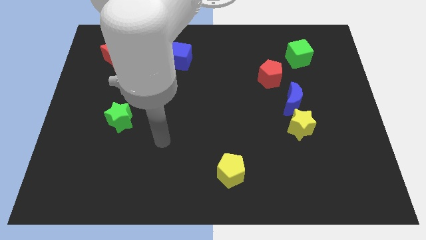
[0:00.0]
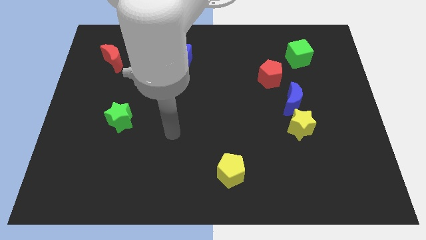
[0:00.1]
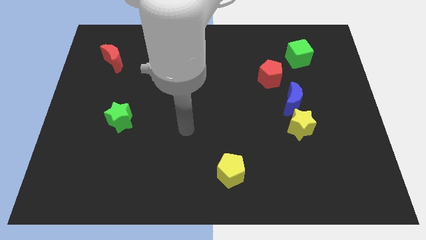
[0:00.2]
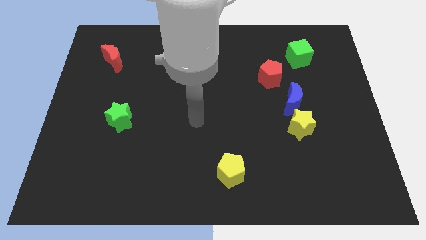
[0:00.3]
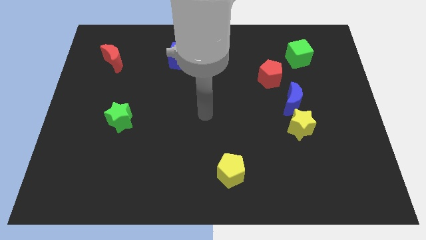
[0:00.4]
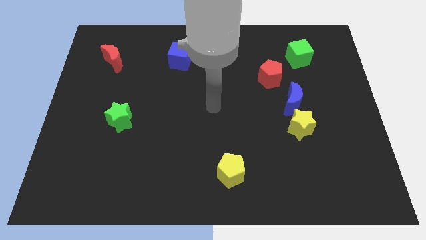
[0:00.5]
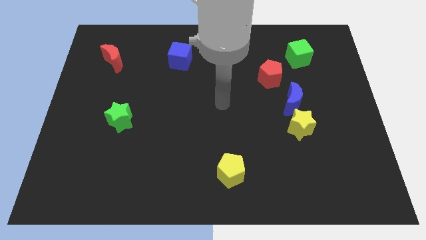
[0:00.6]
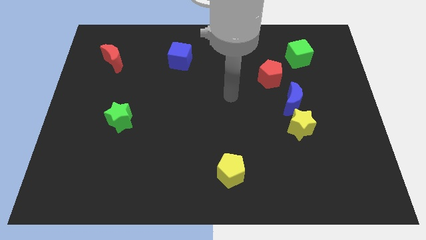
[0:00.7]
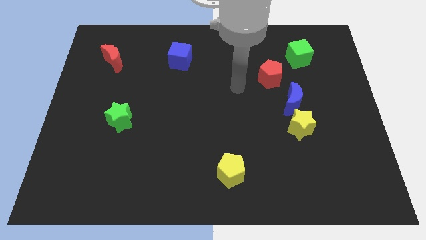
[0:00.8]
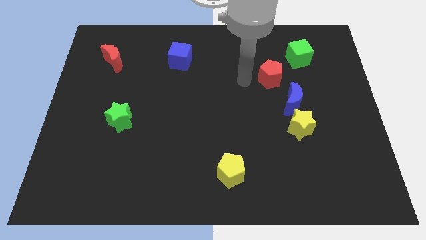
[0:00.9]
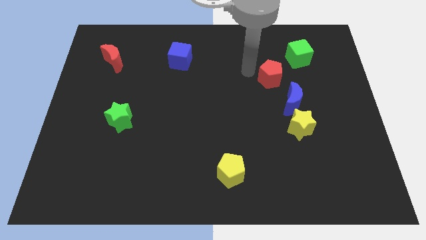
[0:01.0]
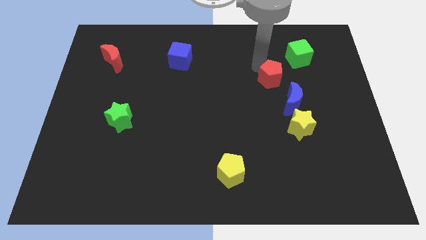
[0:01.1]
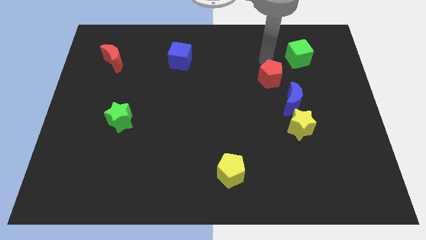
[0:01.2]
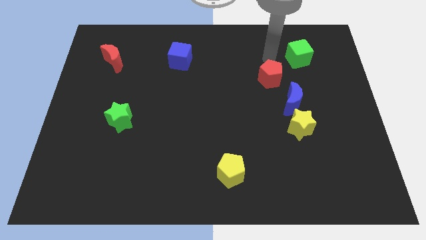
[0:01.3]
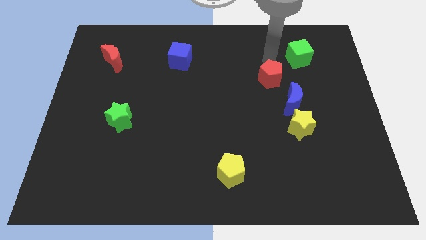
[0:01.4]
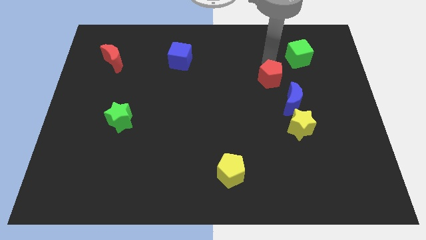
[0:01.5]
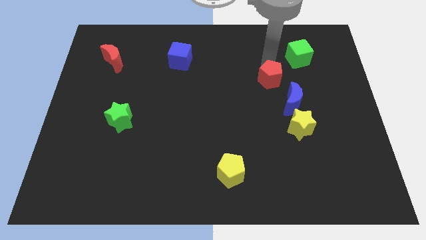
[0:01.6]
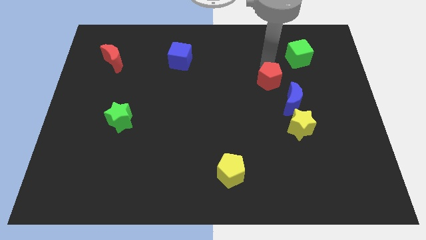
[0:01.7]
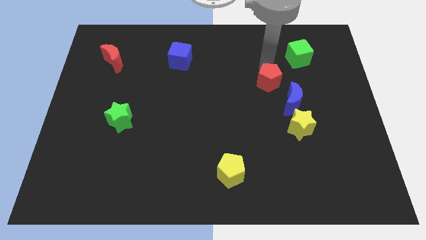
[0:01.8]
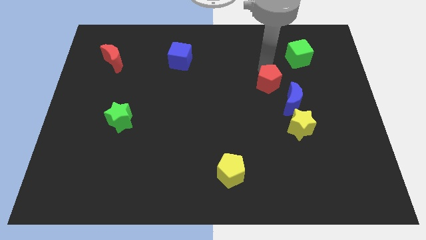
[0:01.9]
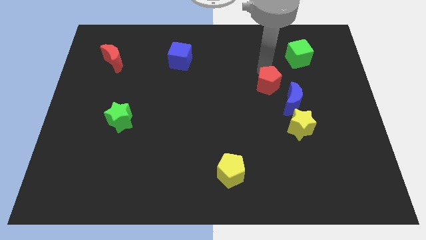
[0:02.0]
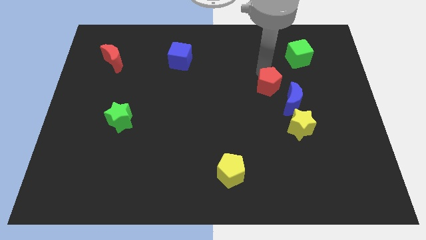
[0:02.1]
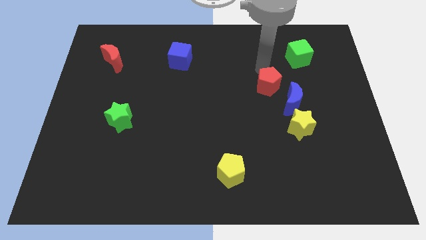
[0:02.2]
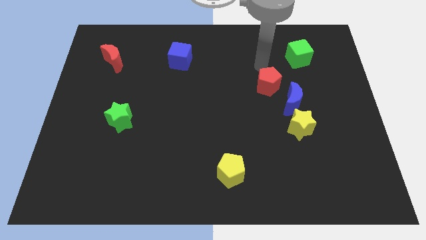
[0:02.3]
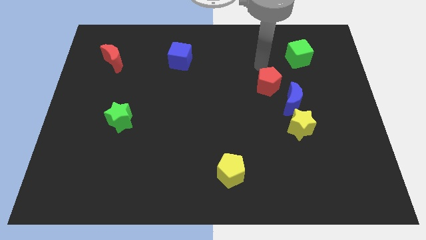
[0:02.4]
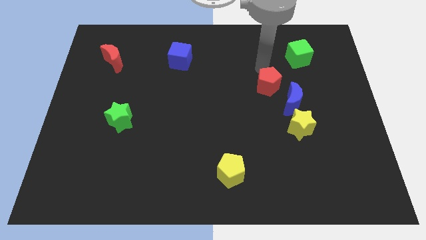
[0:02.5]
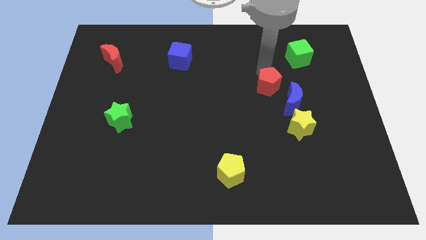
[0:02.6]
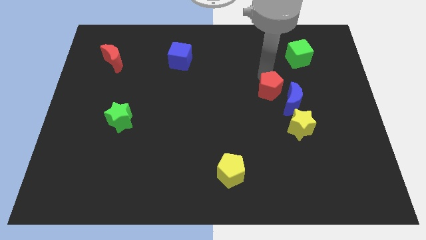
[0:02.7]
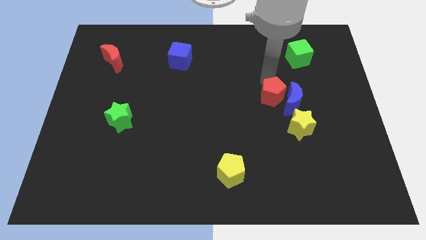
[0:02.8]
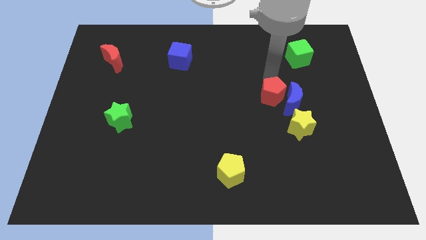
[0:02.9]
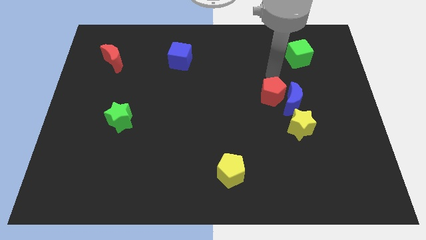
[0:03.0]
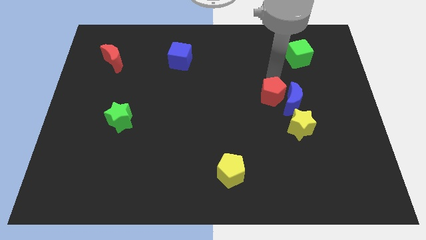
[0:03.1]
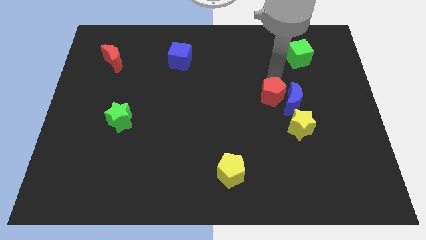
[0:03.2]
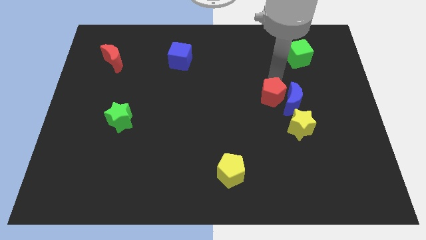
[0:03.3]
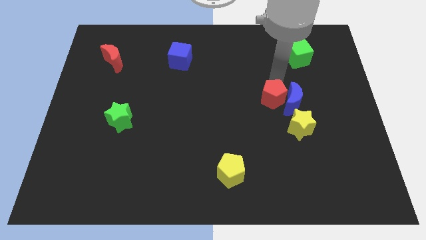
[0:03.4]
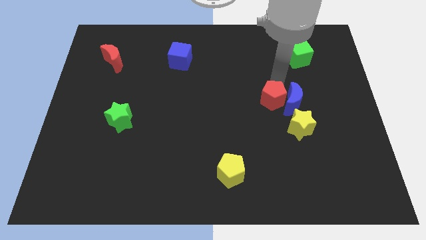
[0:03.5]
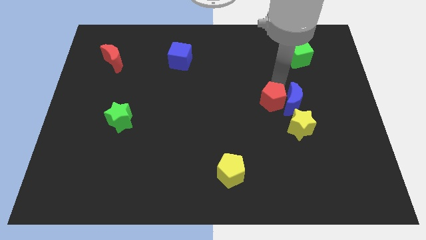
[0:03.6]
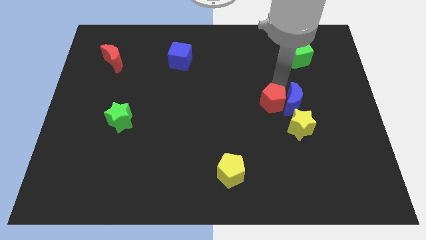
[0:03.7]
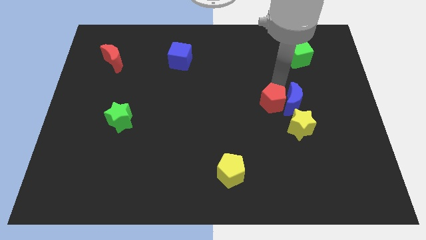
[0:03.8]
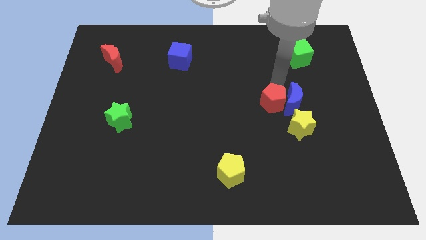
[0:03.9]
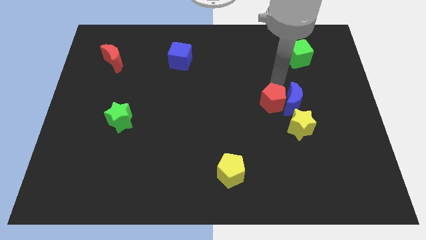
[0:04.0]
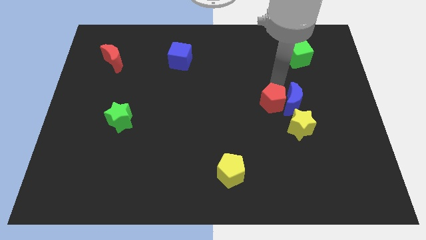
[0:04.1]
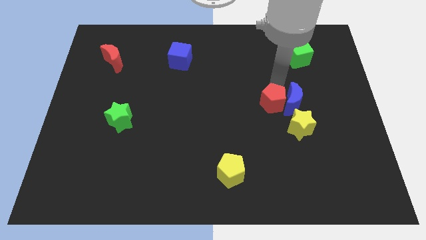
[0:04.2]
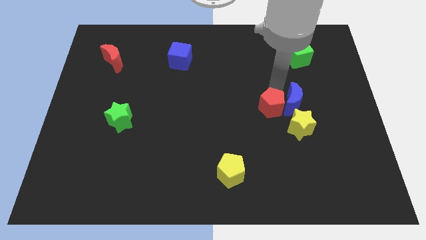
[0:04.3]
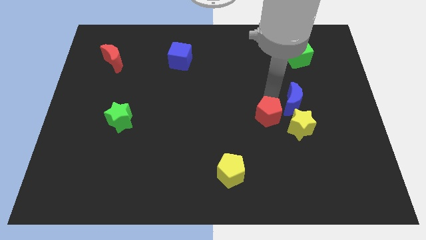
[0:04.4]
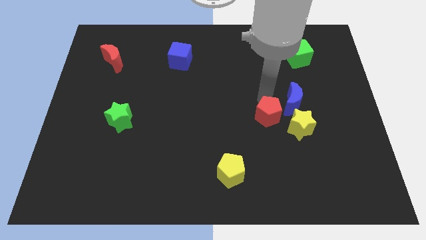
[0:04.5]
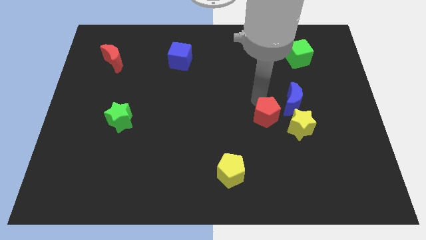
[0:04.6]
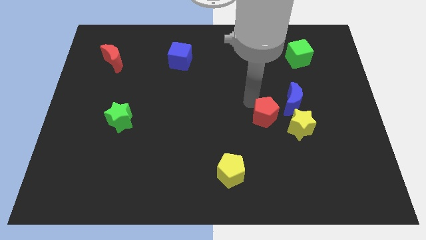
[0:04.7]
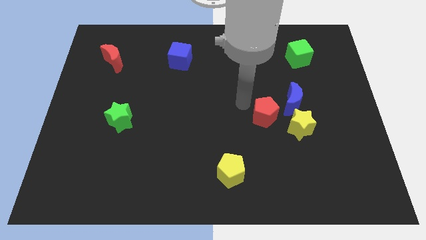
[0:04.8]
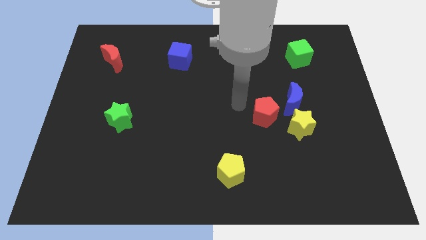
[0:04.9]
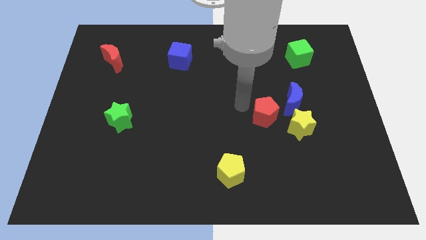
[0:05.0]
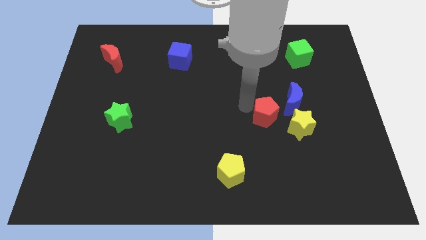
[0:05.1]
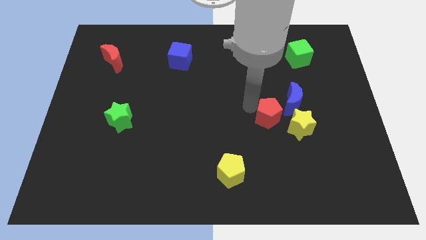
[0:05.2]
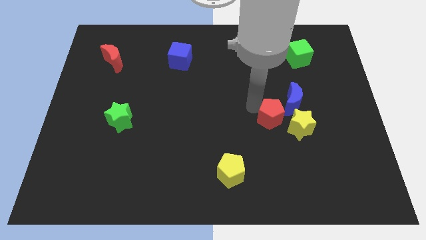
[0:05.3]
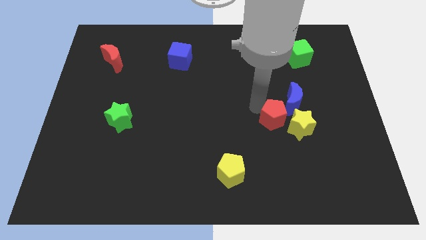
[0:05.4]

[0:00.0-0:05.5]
push the red pentagon close to the yellow star
